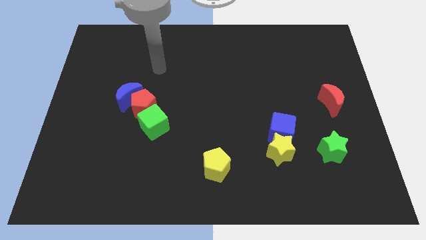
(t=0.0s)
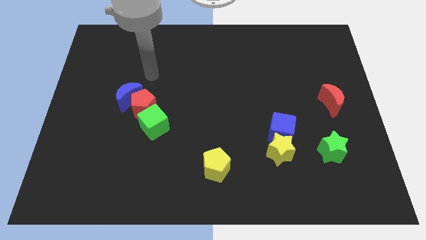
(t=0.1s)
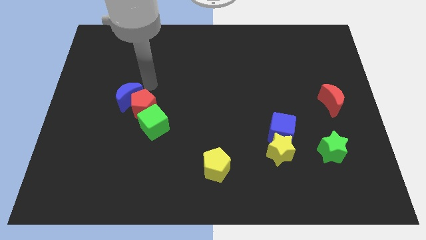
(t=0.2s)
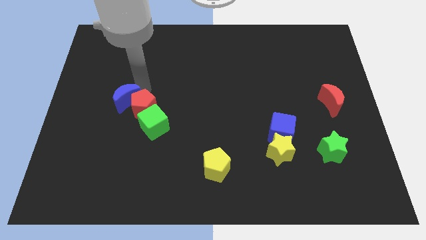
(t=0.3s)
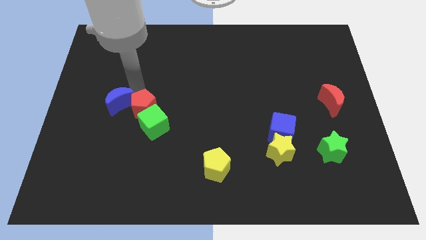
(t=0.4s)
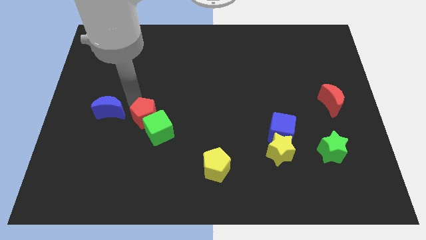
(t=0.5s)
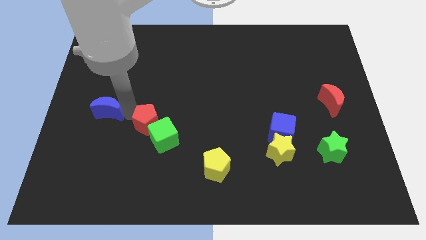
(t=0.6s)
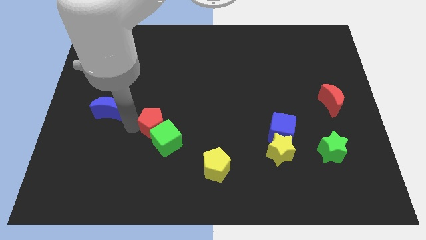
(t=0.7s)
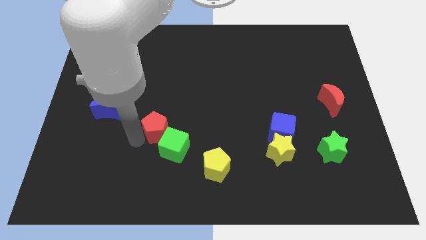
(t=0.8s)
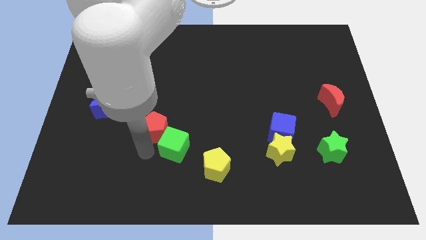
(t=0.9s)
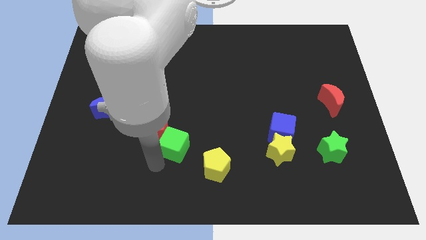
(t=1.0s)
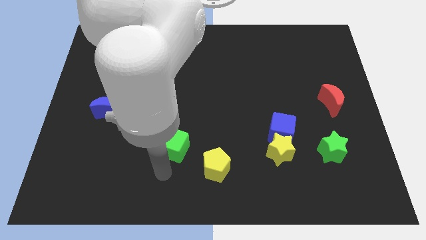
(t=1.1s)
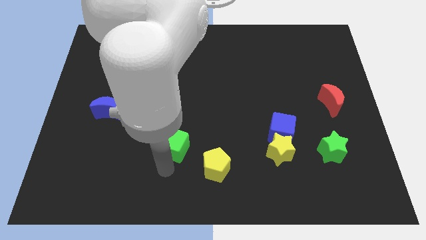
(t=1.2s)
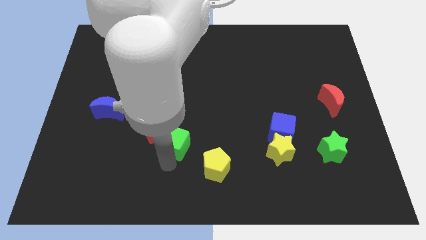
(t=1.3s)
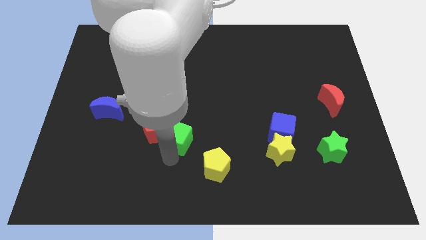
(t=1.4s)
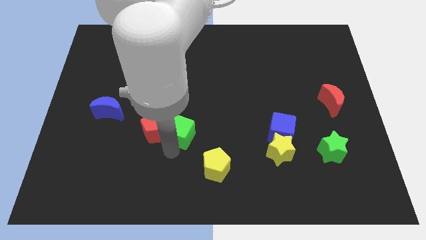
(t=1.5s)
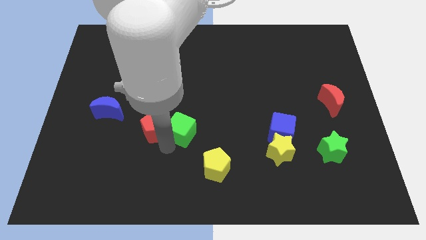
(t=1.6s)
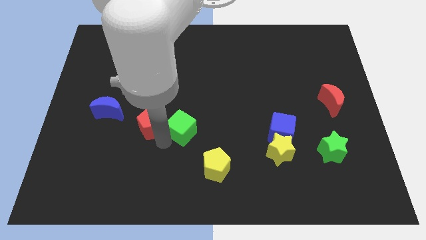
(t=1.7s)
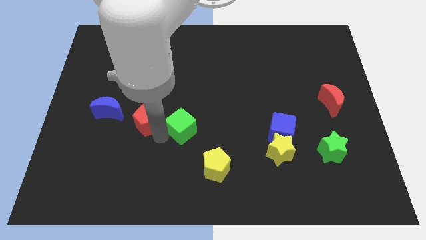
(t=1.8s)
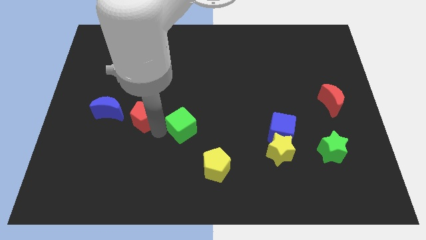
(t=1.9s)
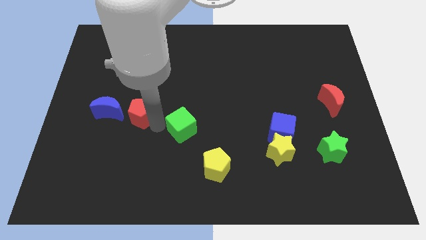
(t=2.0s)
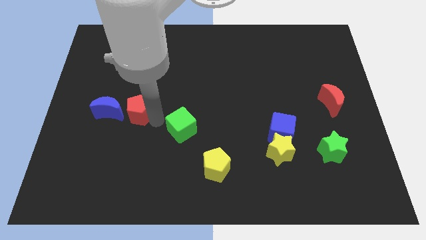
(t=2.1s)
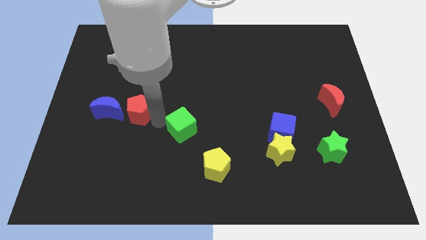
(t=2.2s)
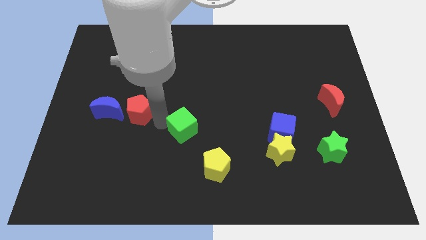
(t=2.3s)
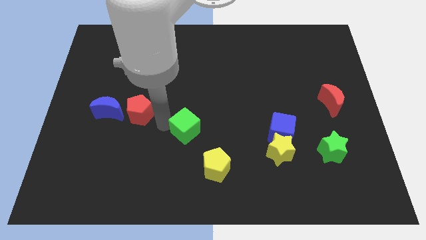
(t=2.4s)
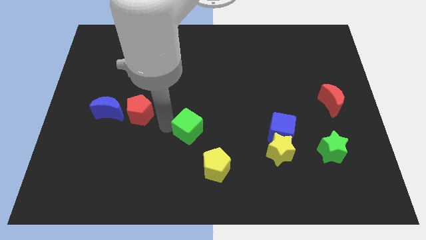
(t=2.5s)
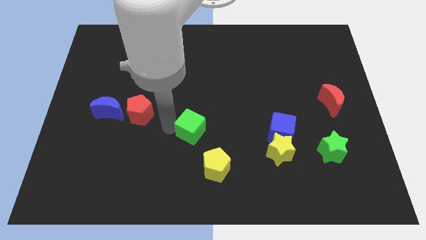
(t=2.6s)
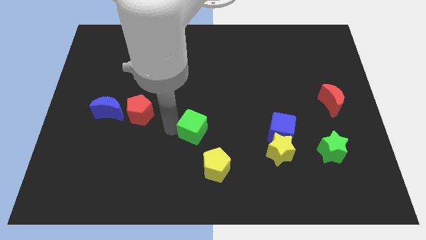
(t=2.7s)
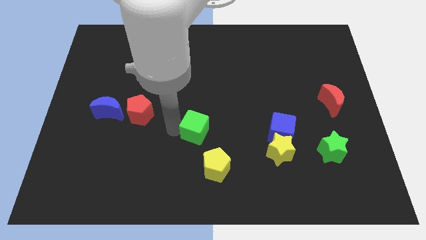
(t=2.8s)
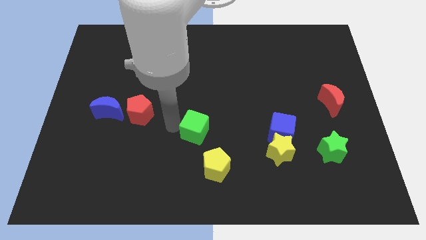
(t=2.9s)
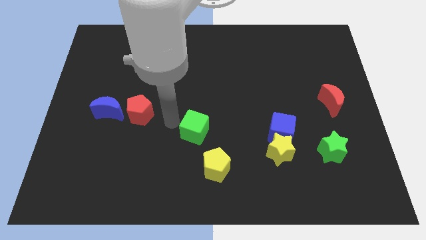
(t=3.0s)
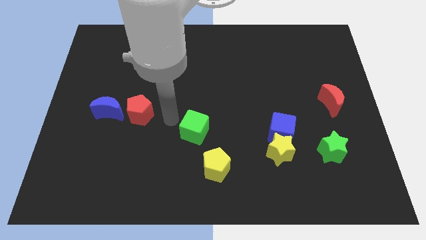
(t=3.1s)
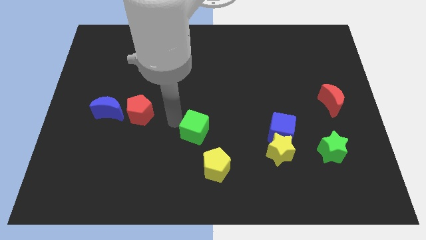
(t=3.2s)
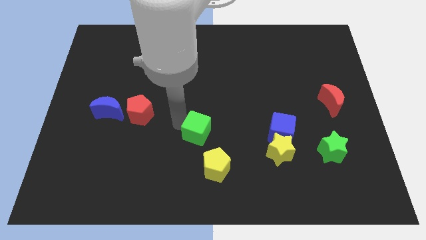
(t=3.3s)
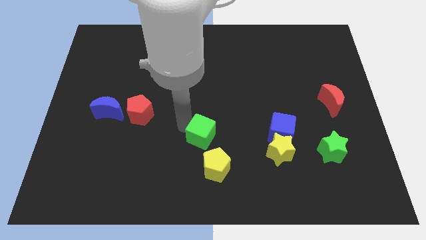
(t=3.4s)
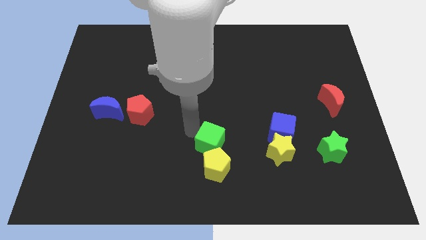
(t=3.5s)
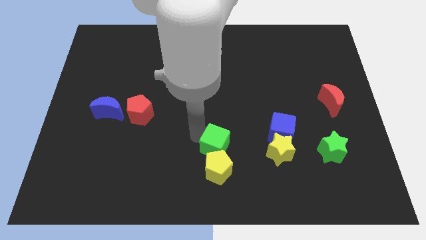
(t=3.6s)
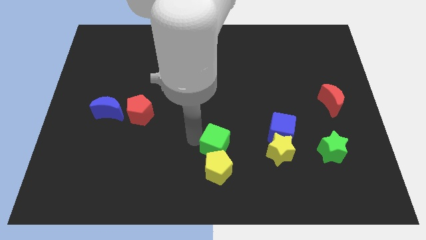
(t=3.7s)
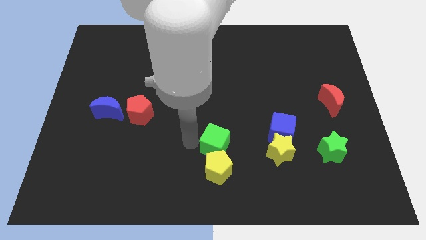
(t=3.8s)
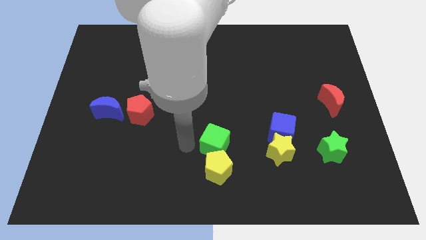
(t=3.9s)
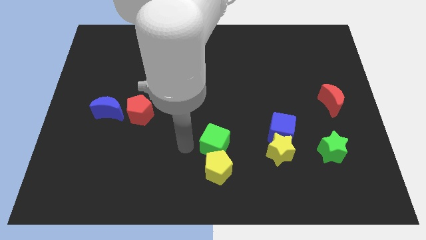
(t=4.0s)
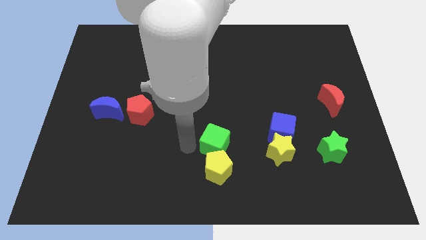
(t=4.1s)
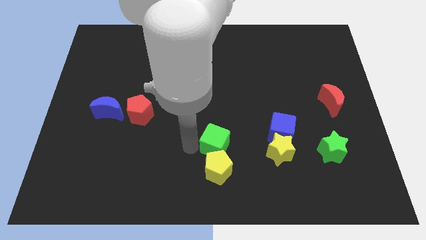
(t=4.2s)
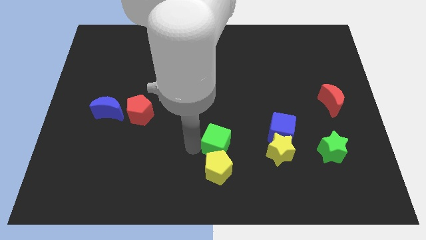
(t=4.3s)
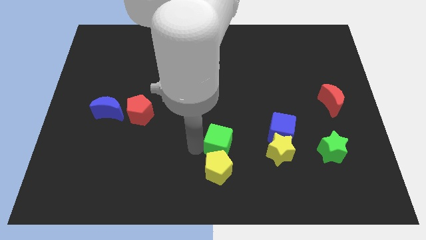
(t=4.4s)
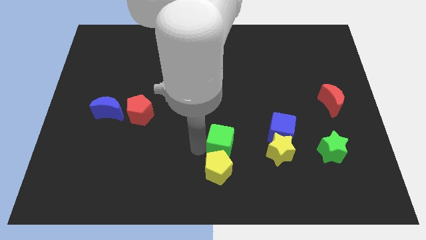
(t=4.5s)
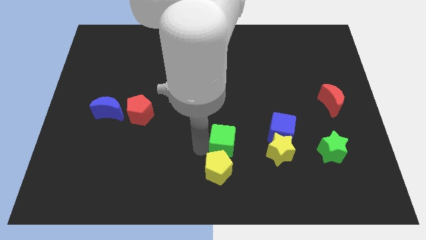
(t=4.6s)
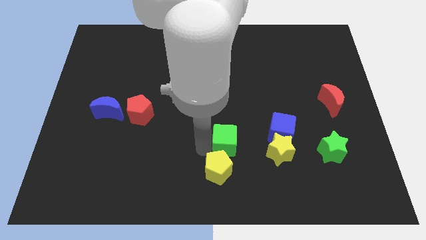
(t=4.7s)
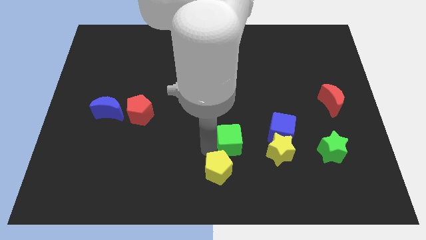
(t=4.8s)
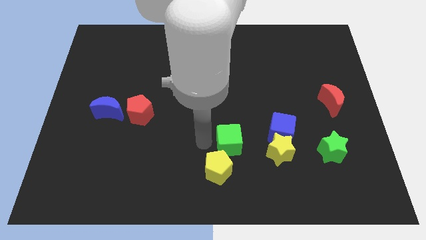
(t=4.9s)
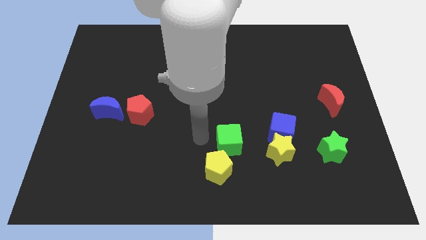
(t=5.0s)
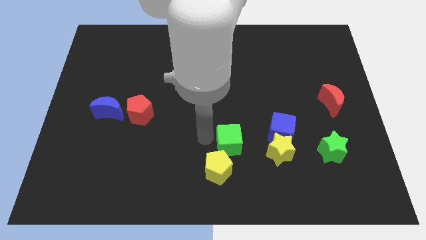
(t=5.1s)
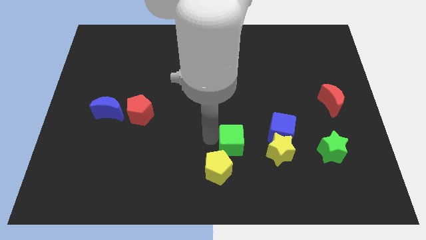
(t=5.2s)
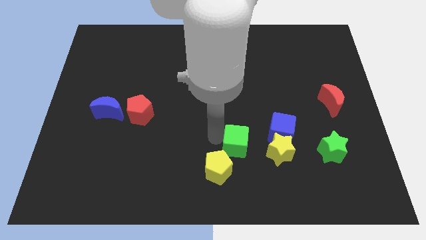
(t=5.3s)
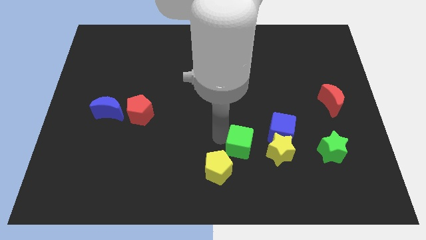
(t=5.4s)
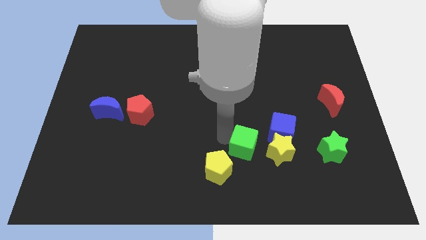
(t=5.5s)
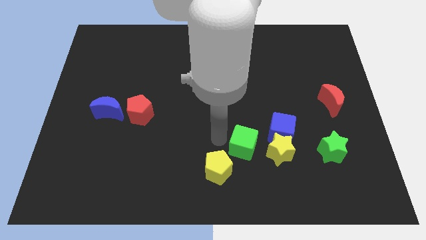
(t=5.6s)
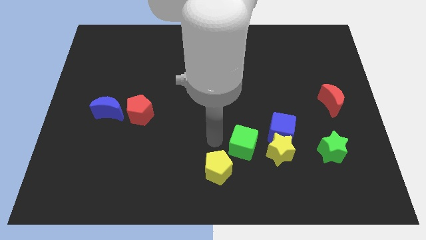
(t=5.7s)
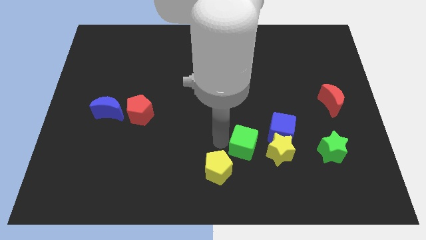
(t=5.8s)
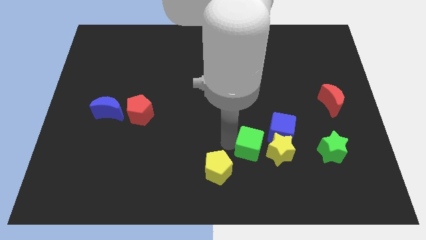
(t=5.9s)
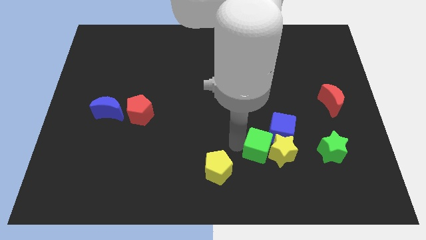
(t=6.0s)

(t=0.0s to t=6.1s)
put the green cube close to the yellow star
